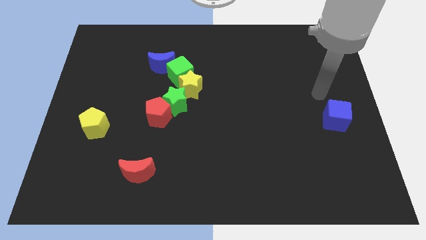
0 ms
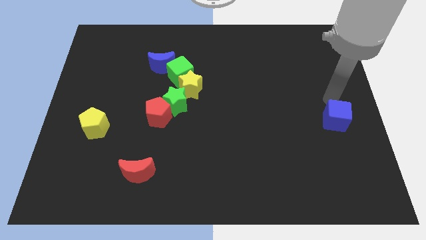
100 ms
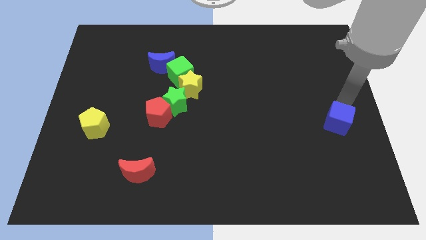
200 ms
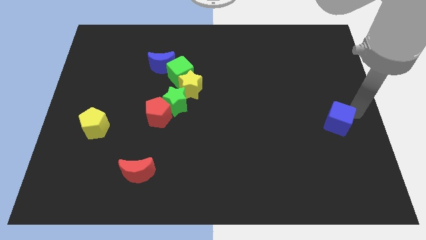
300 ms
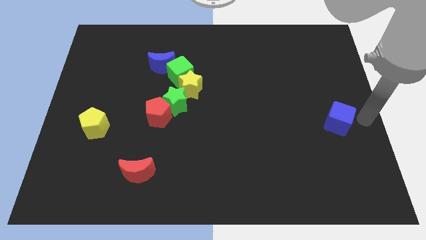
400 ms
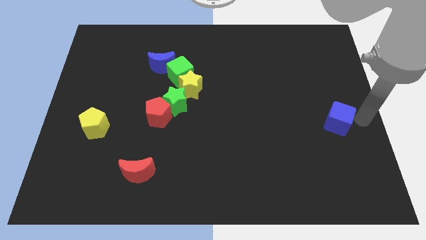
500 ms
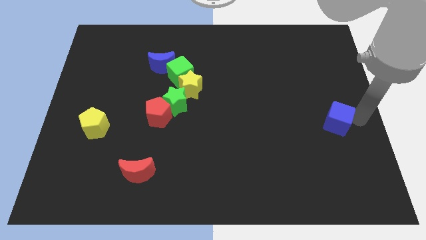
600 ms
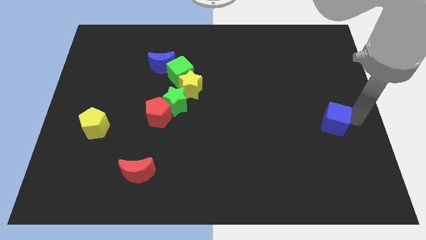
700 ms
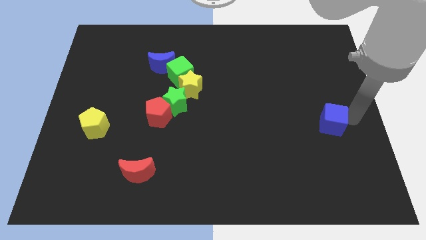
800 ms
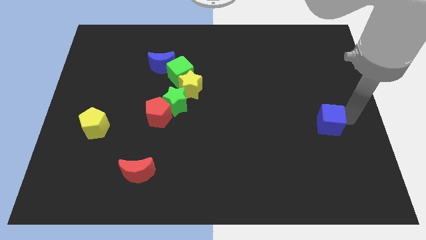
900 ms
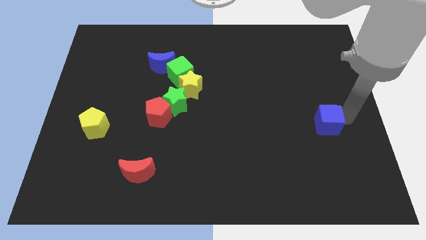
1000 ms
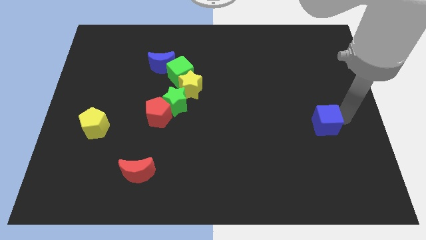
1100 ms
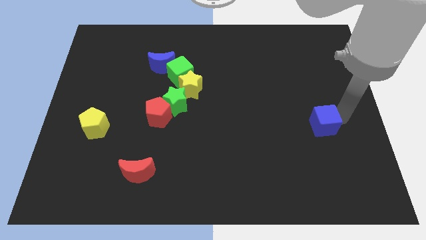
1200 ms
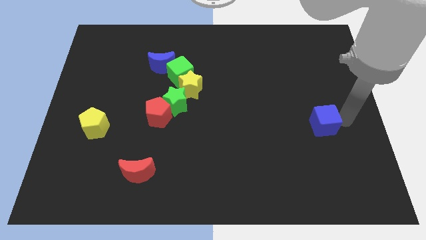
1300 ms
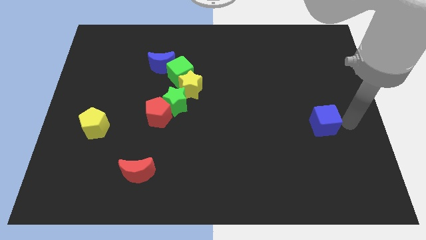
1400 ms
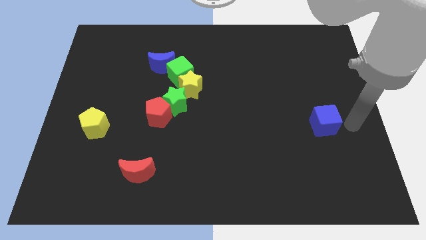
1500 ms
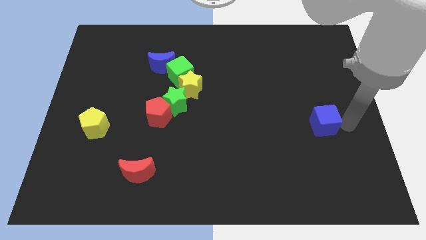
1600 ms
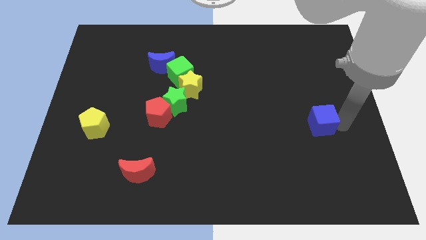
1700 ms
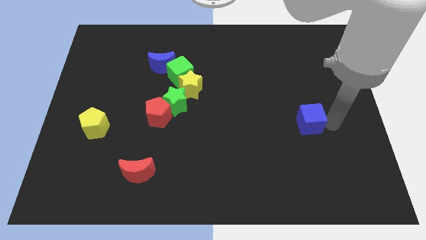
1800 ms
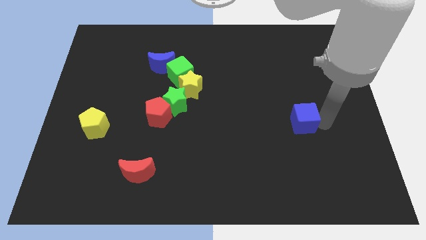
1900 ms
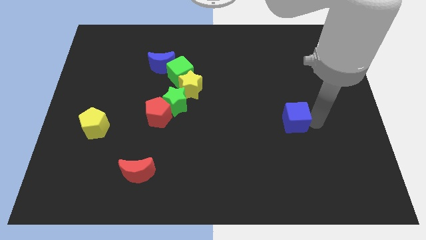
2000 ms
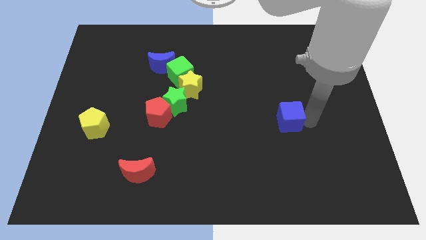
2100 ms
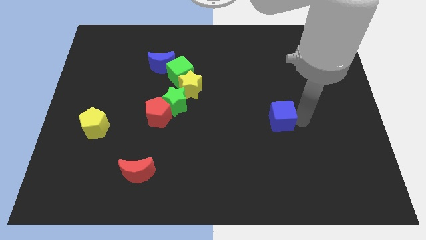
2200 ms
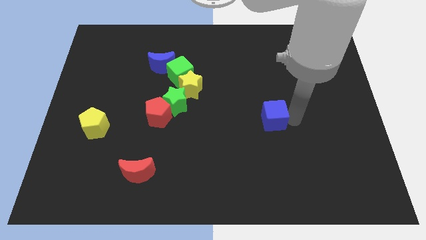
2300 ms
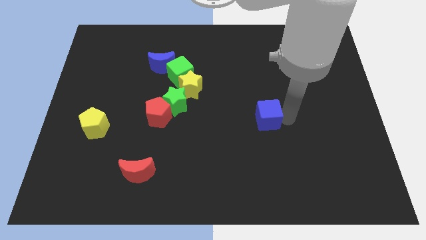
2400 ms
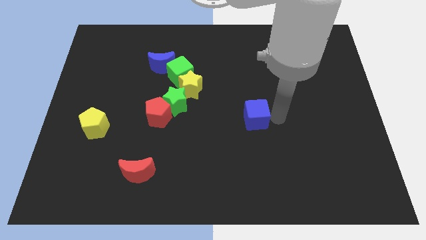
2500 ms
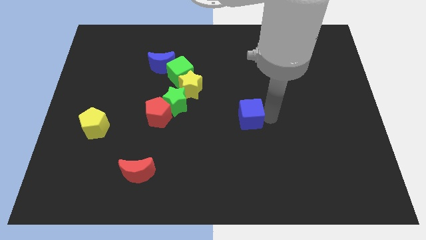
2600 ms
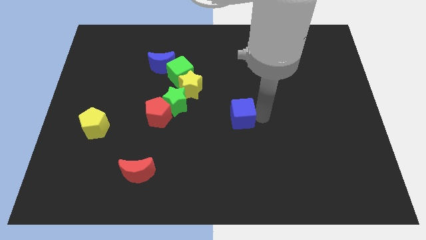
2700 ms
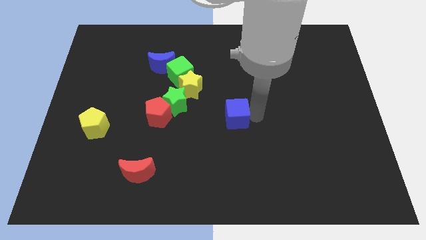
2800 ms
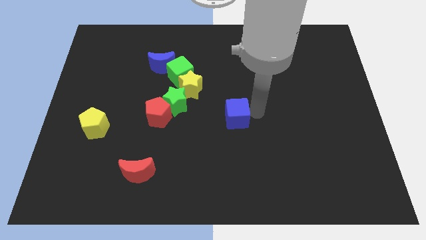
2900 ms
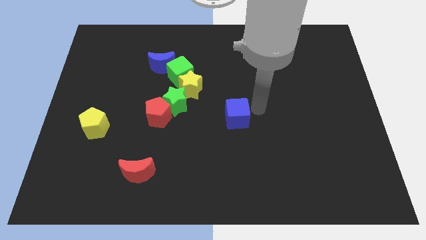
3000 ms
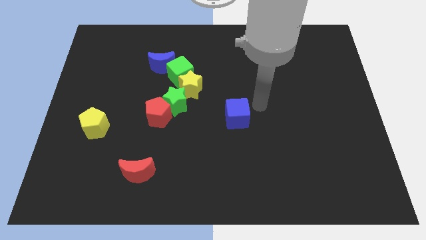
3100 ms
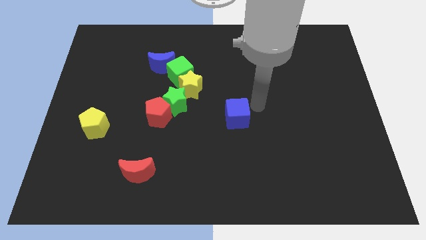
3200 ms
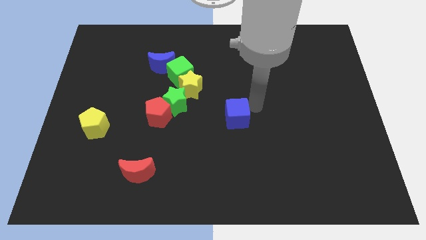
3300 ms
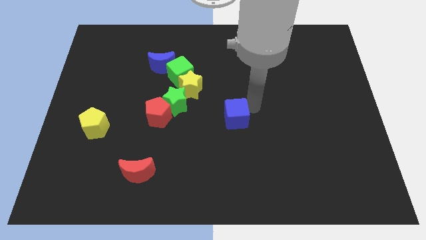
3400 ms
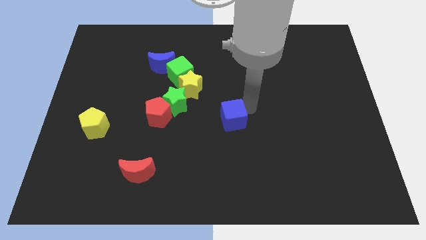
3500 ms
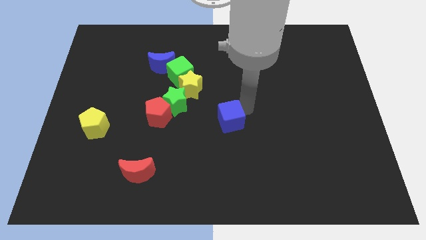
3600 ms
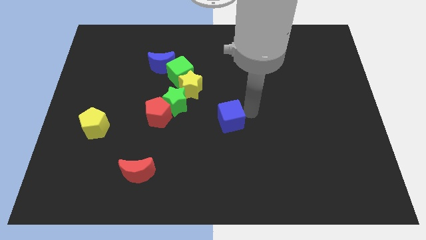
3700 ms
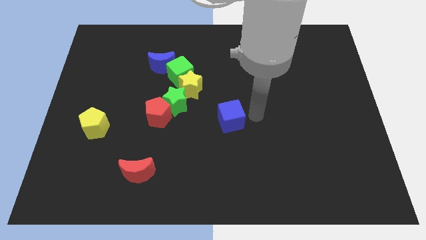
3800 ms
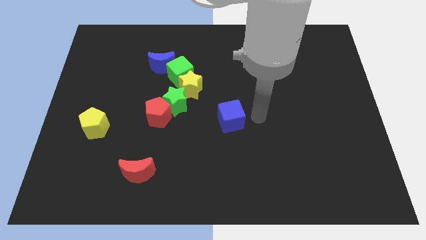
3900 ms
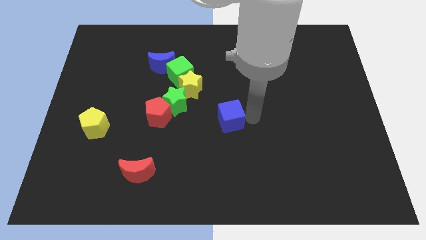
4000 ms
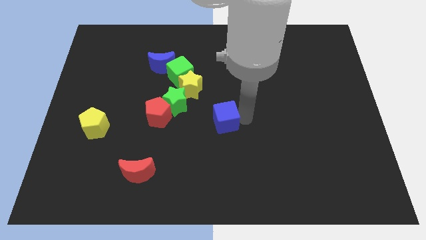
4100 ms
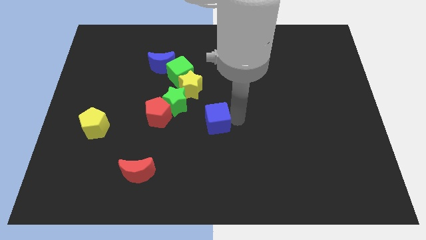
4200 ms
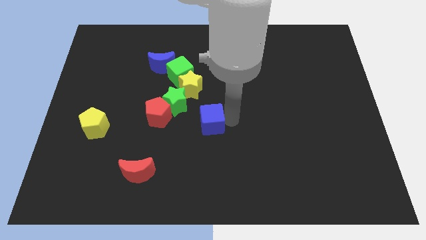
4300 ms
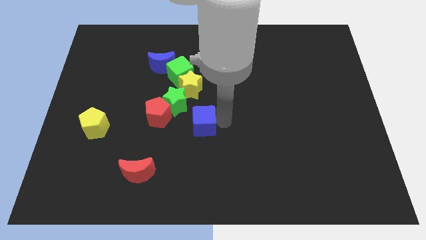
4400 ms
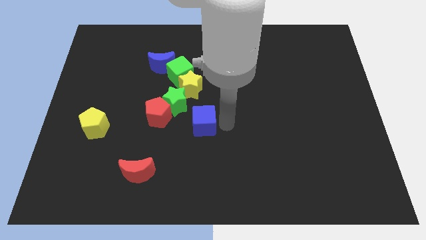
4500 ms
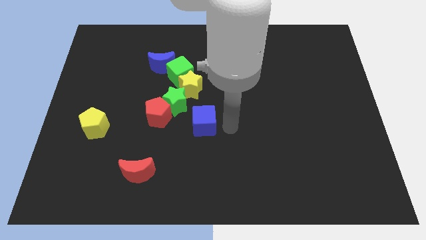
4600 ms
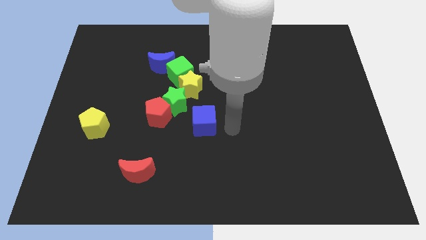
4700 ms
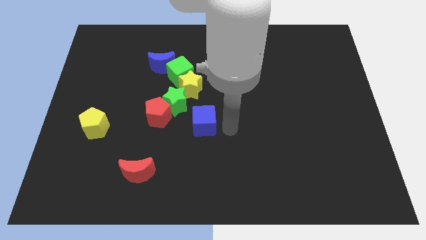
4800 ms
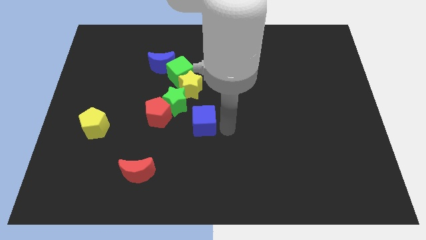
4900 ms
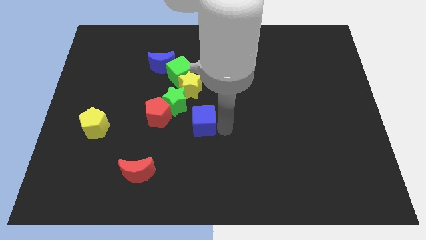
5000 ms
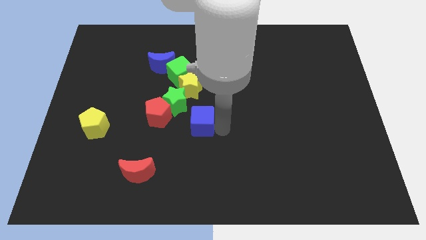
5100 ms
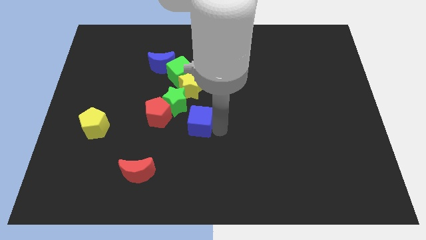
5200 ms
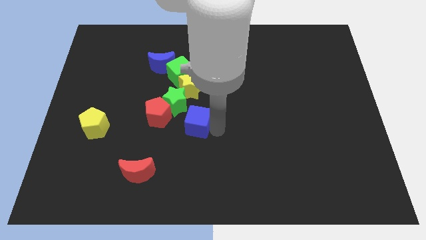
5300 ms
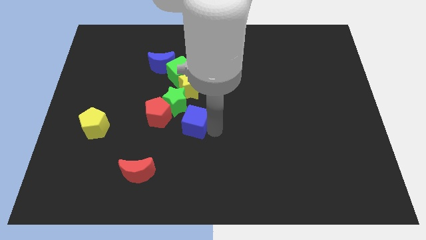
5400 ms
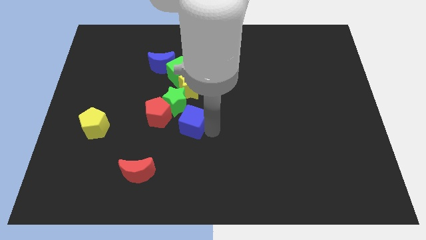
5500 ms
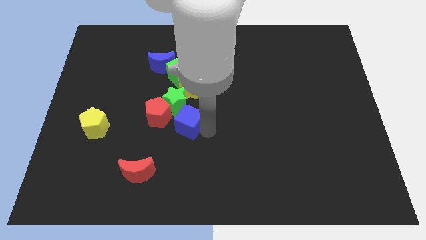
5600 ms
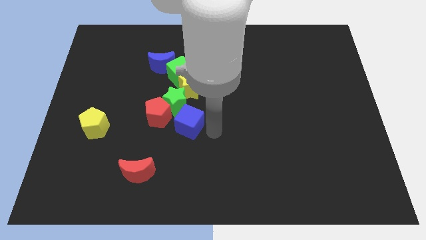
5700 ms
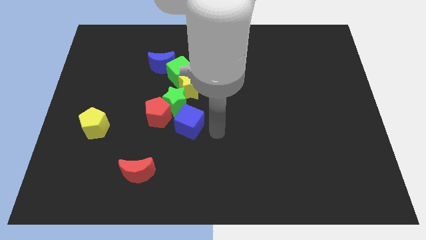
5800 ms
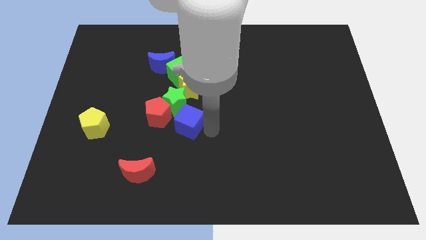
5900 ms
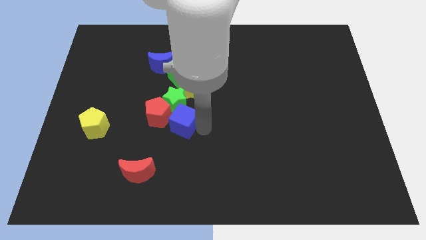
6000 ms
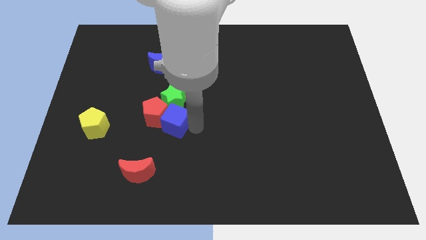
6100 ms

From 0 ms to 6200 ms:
push the blue cube close to the red pentagon

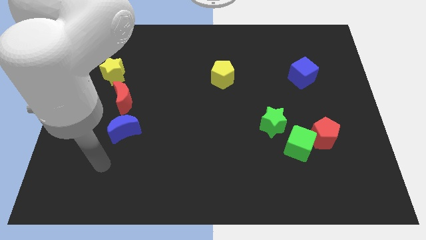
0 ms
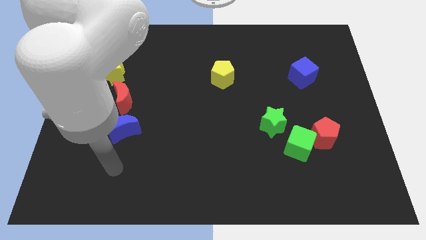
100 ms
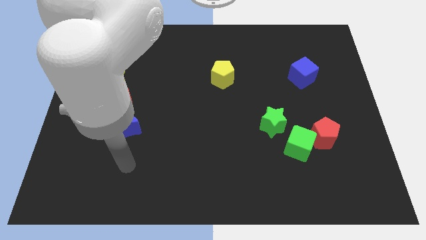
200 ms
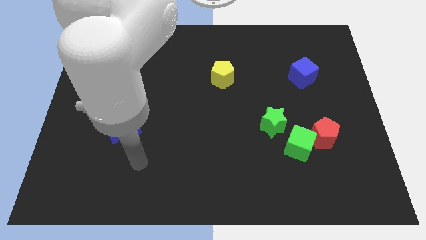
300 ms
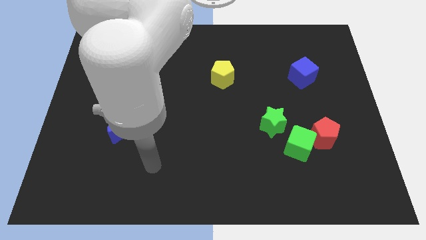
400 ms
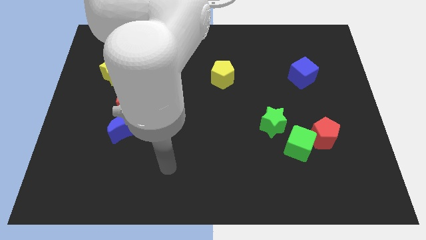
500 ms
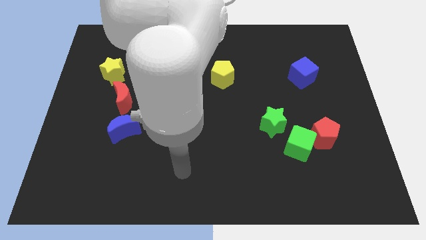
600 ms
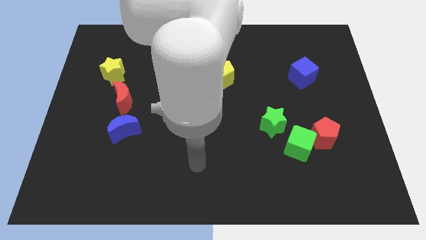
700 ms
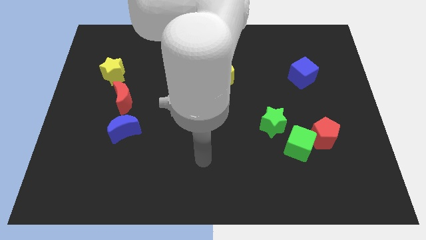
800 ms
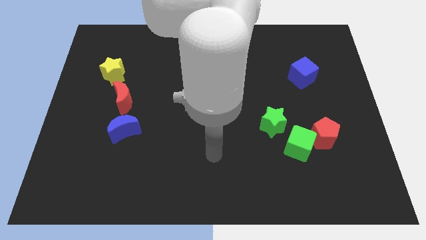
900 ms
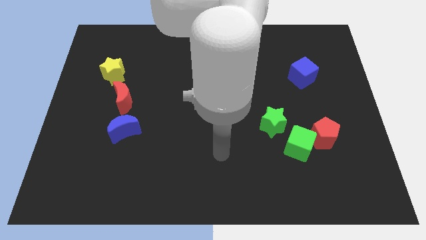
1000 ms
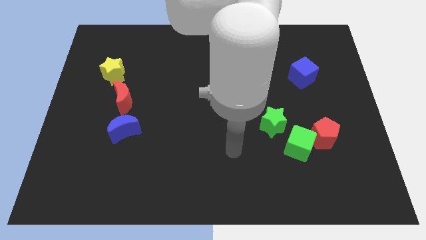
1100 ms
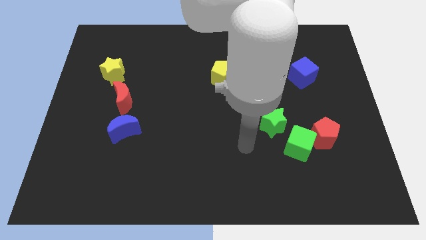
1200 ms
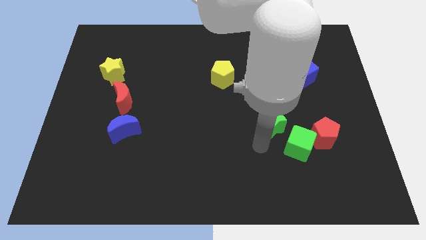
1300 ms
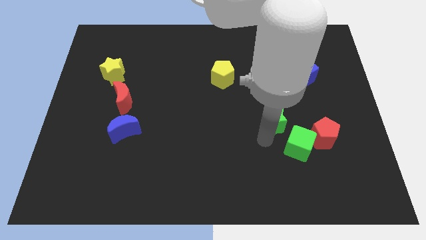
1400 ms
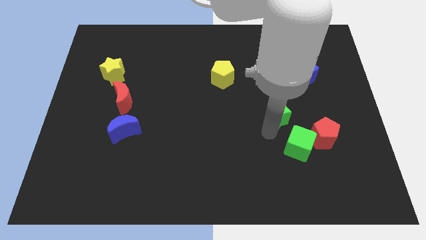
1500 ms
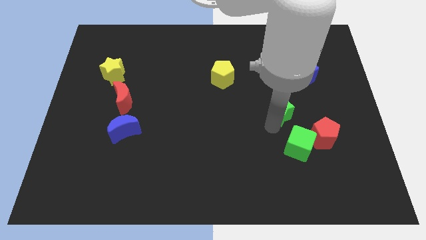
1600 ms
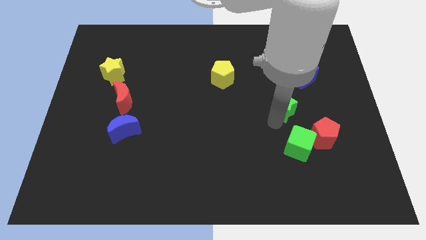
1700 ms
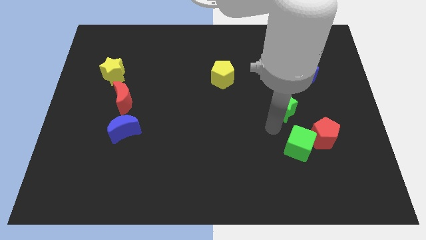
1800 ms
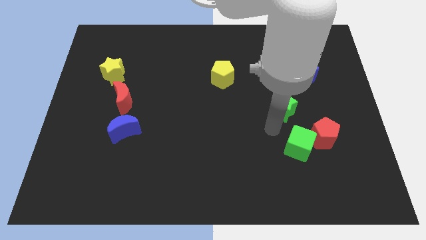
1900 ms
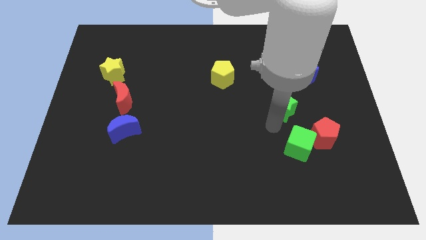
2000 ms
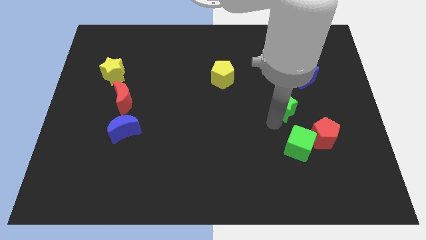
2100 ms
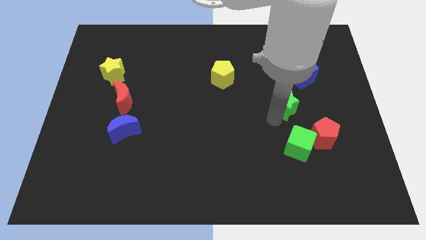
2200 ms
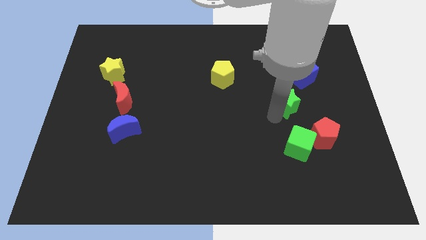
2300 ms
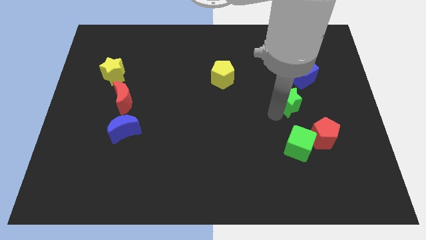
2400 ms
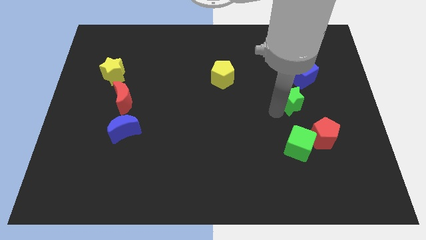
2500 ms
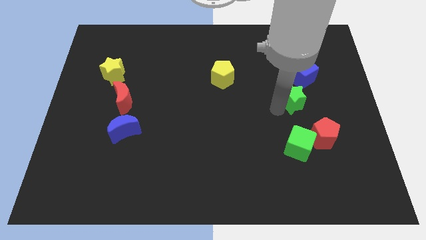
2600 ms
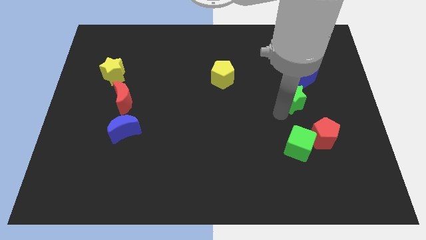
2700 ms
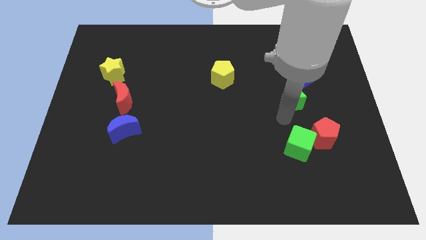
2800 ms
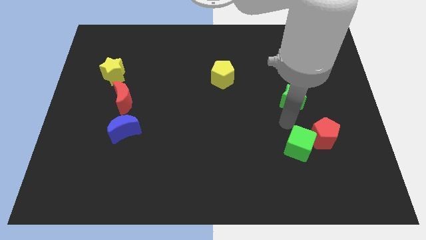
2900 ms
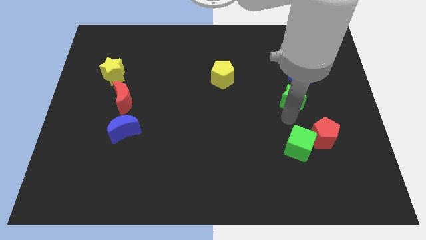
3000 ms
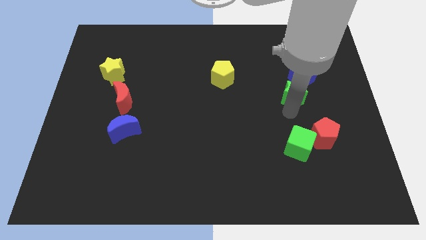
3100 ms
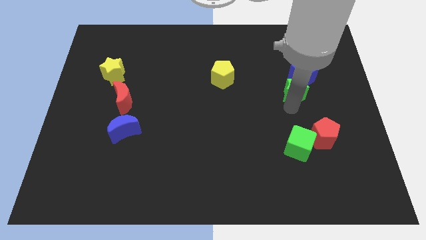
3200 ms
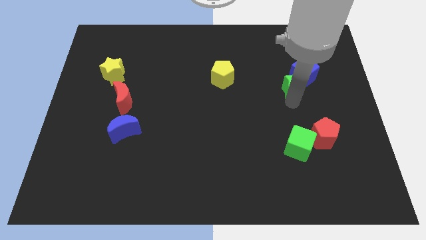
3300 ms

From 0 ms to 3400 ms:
move the green star to the blue cube
